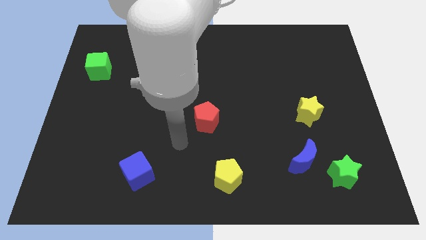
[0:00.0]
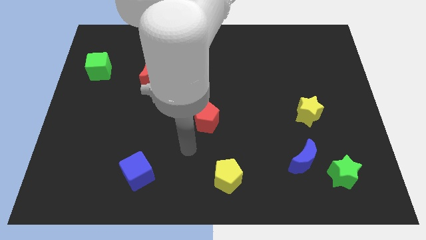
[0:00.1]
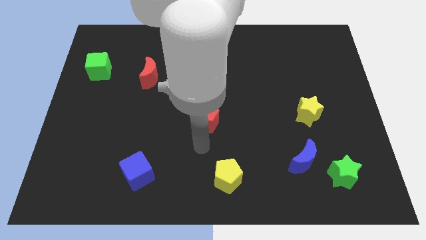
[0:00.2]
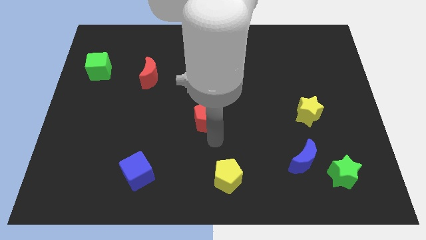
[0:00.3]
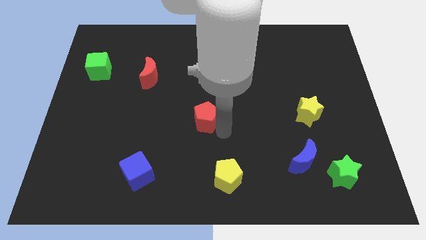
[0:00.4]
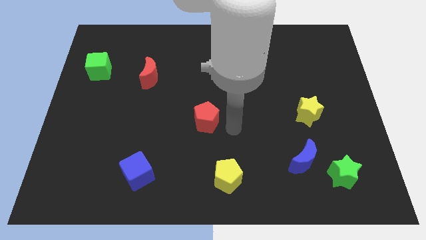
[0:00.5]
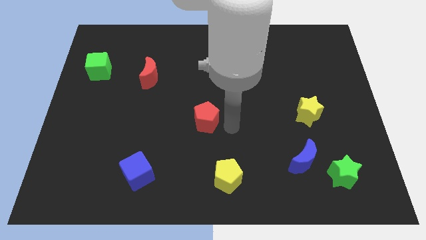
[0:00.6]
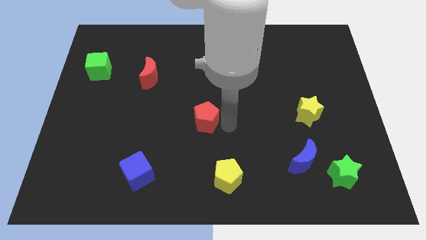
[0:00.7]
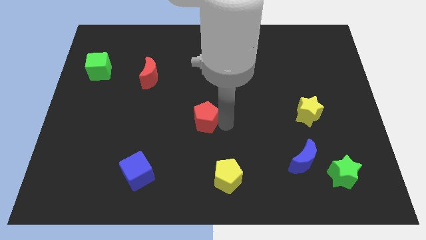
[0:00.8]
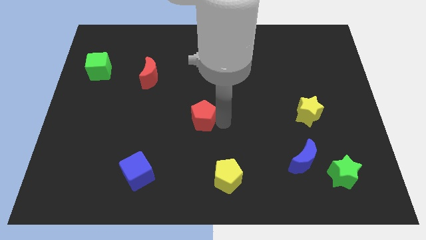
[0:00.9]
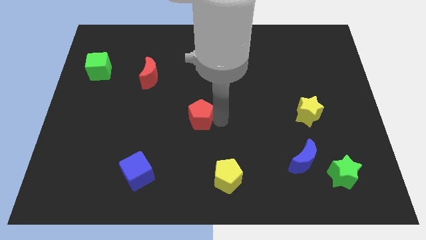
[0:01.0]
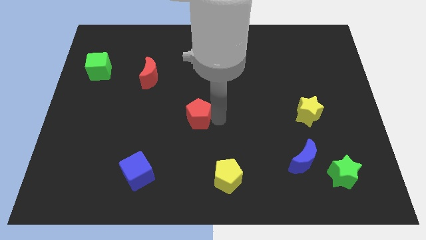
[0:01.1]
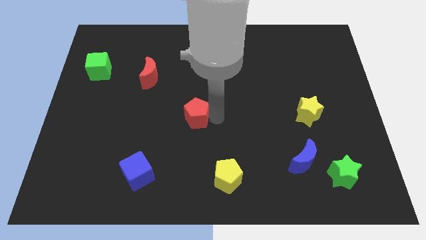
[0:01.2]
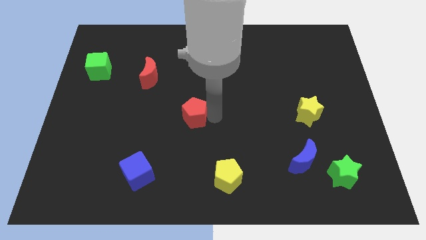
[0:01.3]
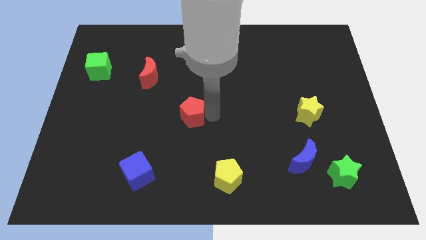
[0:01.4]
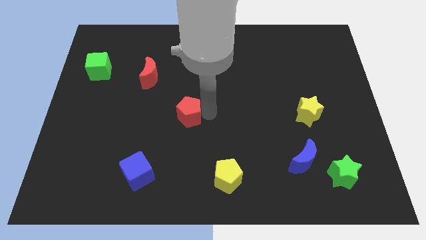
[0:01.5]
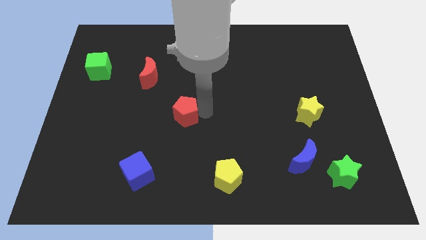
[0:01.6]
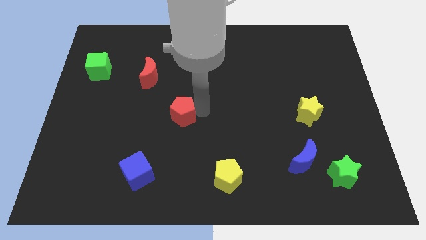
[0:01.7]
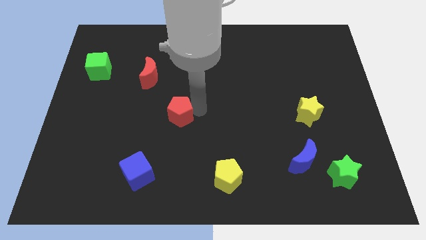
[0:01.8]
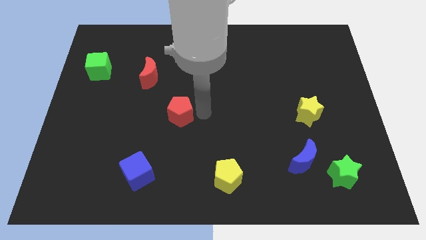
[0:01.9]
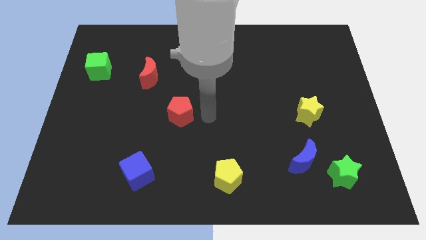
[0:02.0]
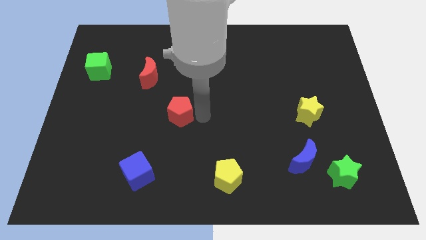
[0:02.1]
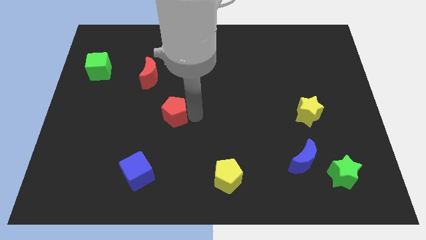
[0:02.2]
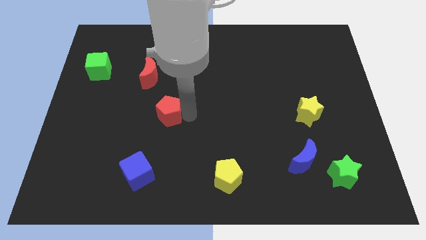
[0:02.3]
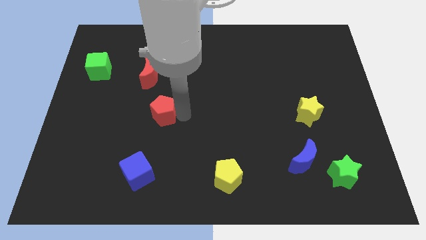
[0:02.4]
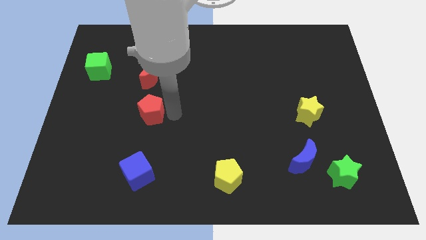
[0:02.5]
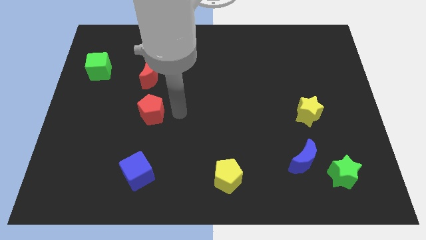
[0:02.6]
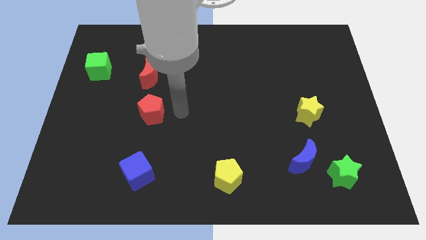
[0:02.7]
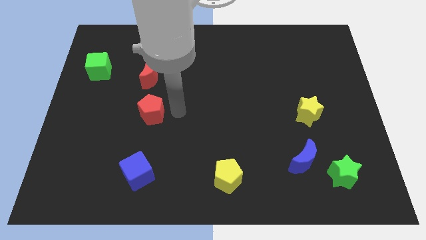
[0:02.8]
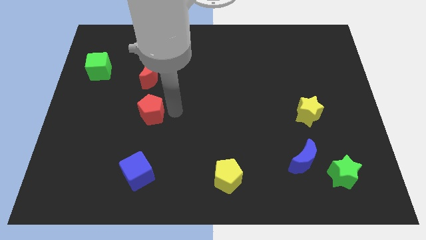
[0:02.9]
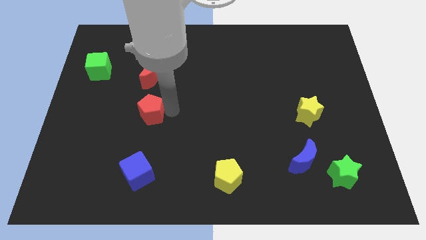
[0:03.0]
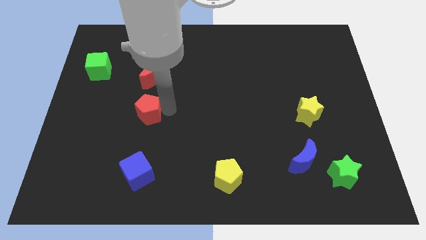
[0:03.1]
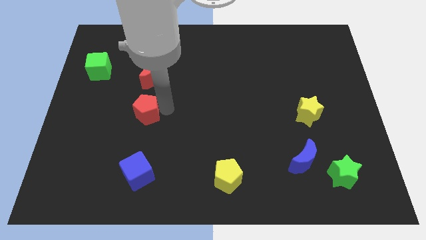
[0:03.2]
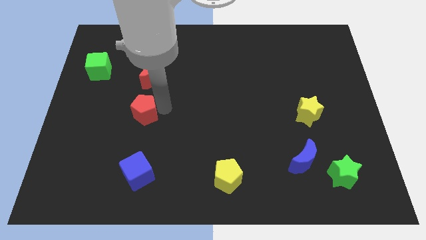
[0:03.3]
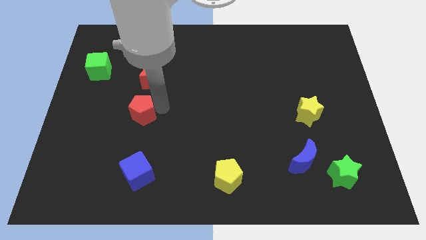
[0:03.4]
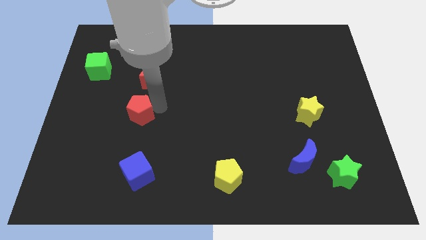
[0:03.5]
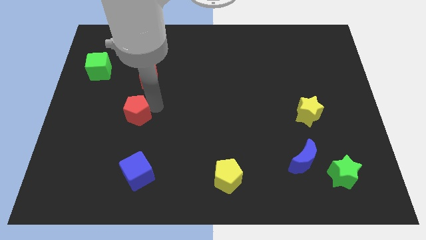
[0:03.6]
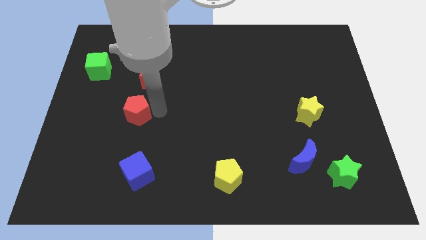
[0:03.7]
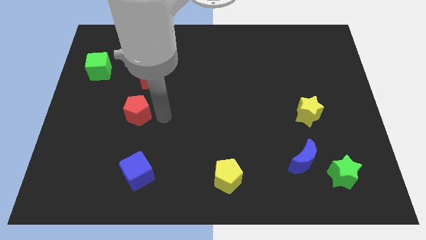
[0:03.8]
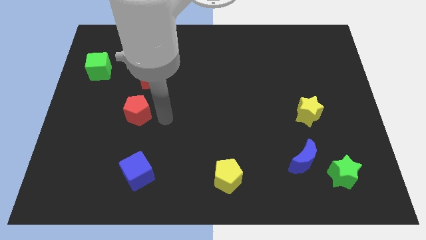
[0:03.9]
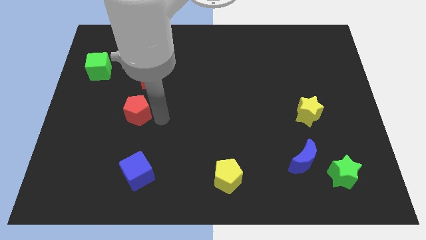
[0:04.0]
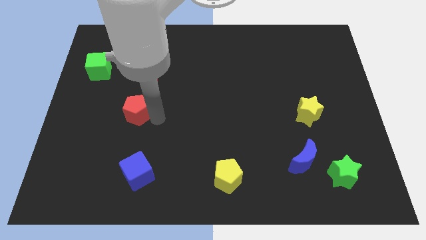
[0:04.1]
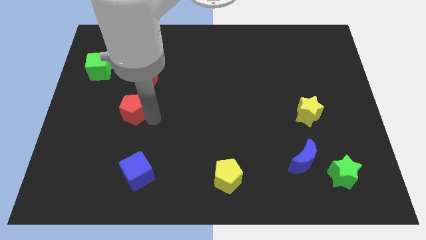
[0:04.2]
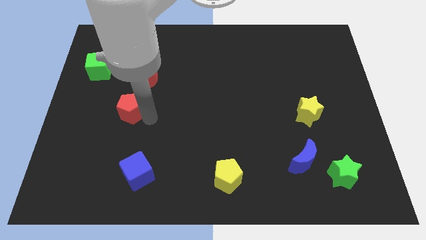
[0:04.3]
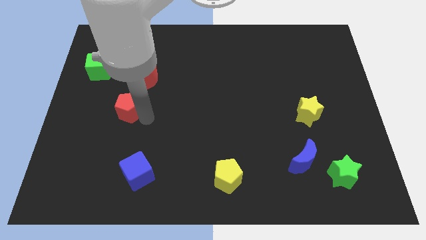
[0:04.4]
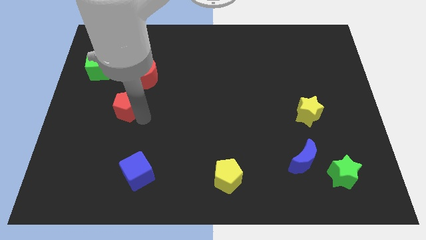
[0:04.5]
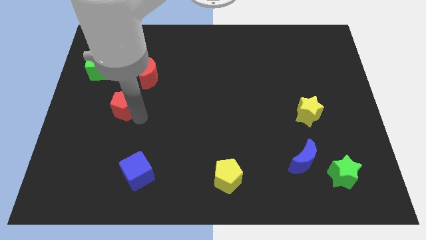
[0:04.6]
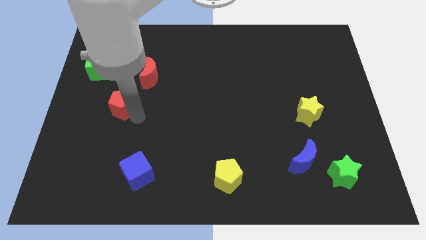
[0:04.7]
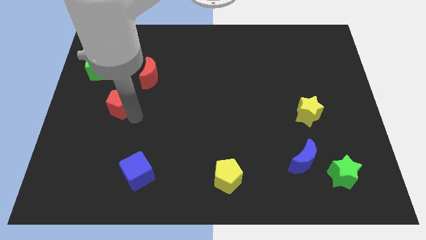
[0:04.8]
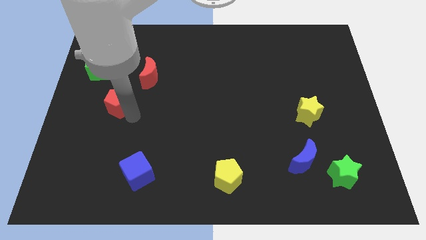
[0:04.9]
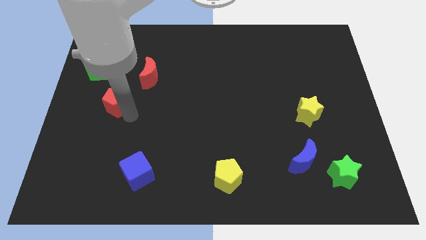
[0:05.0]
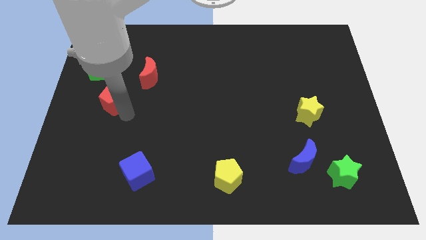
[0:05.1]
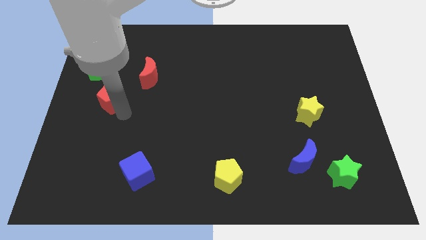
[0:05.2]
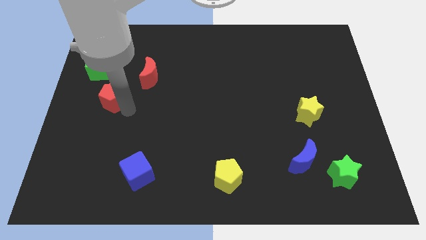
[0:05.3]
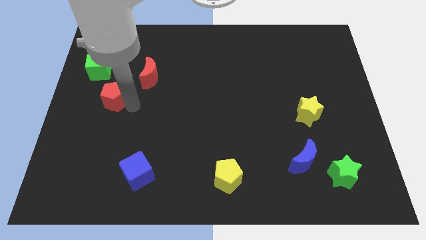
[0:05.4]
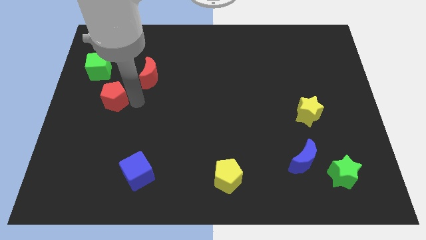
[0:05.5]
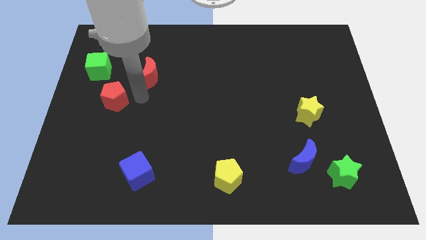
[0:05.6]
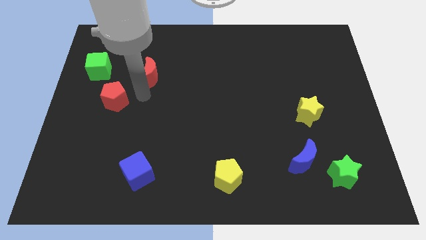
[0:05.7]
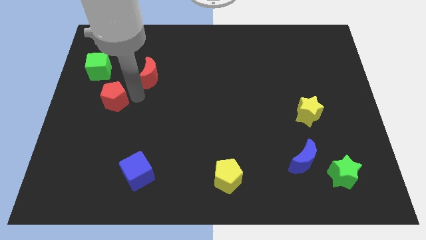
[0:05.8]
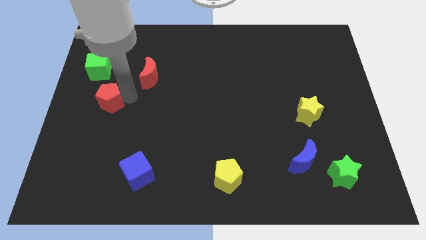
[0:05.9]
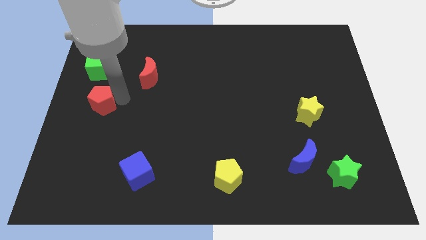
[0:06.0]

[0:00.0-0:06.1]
push the red pentagon to the left side of the board
